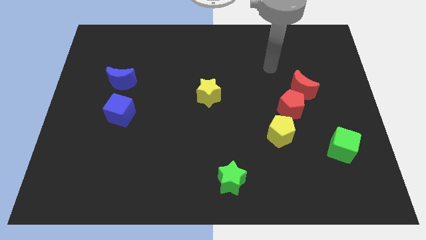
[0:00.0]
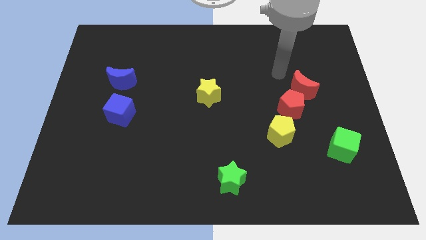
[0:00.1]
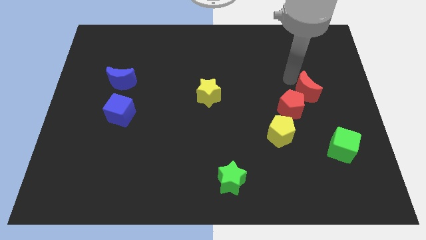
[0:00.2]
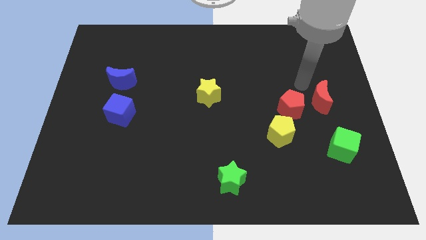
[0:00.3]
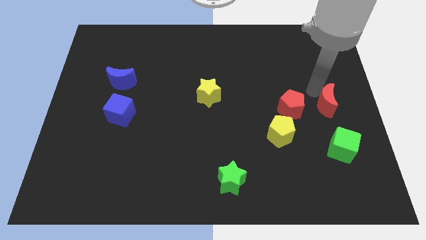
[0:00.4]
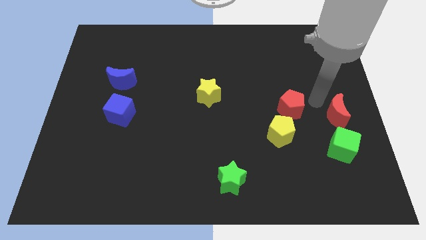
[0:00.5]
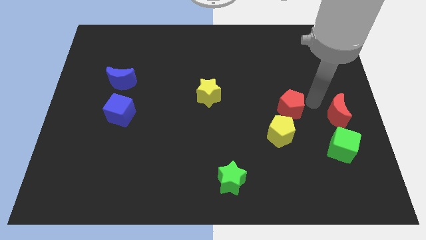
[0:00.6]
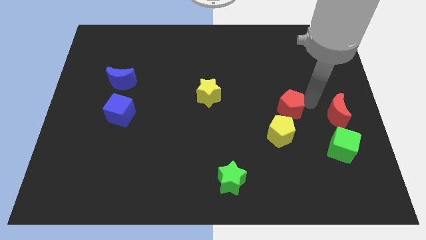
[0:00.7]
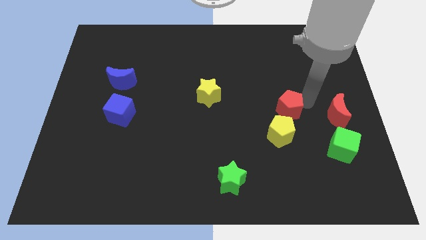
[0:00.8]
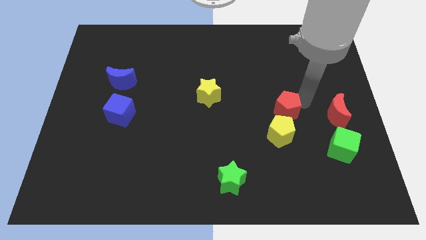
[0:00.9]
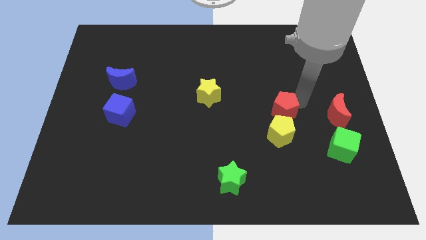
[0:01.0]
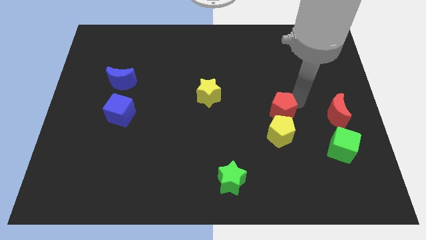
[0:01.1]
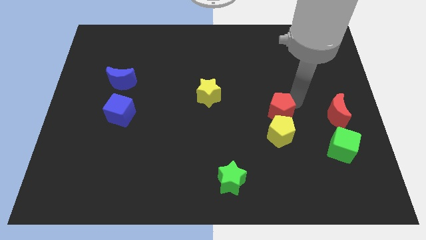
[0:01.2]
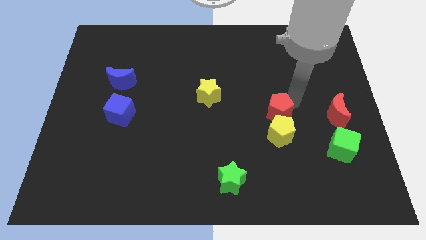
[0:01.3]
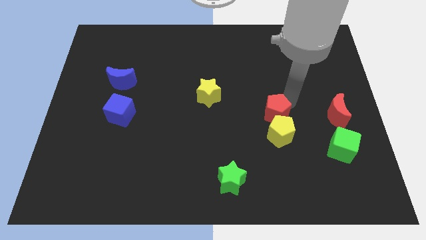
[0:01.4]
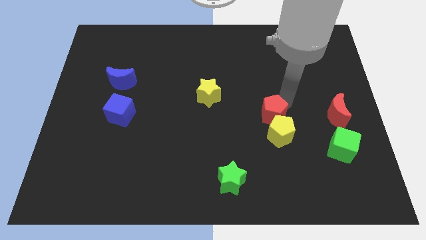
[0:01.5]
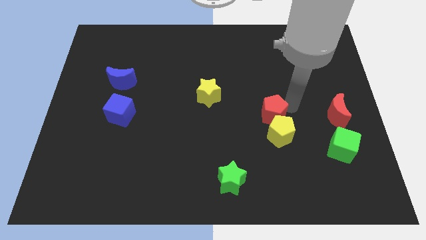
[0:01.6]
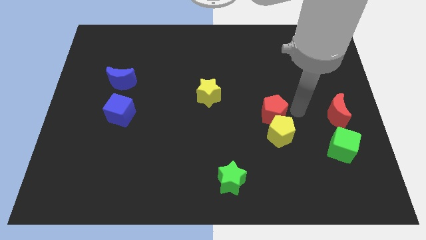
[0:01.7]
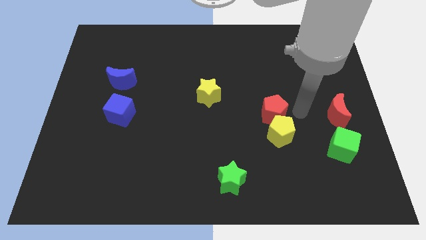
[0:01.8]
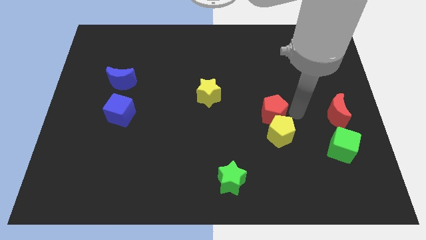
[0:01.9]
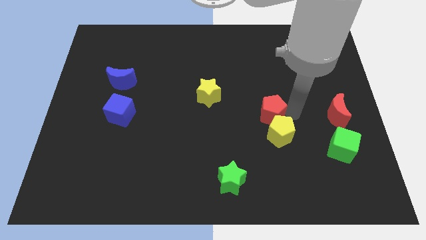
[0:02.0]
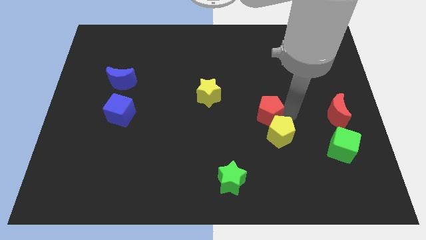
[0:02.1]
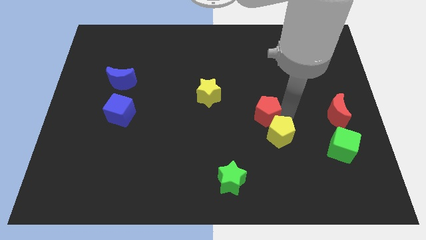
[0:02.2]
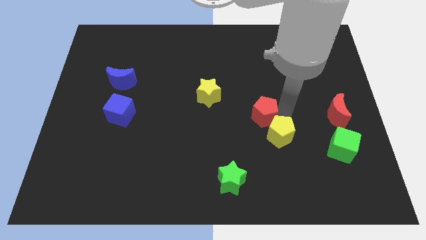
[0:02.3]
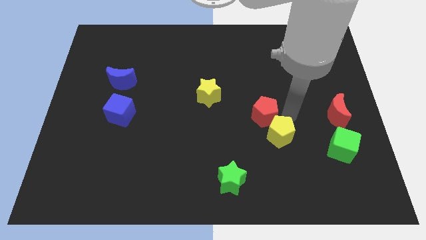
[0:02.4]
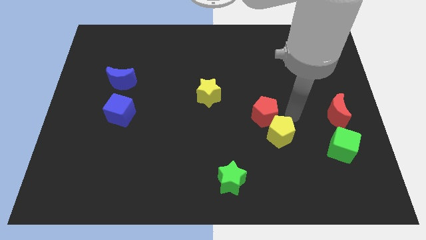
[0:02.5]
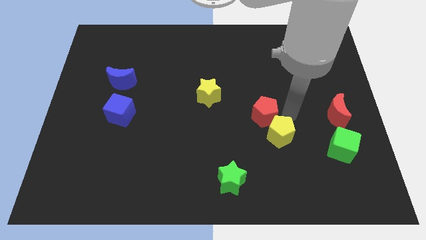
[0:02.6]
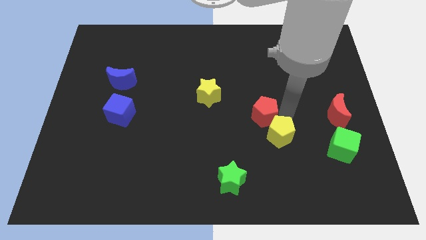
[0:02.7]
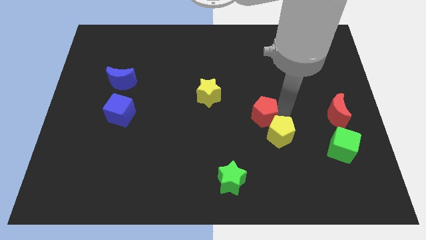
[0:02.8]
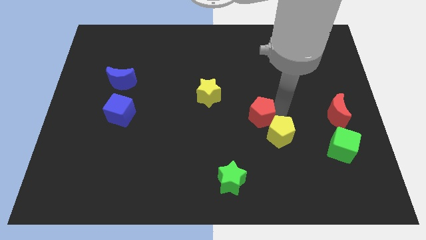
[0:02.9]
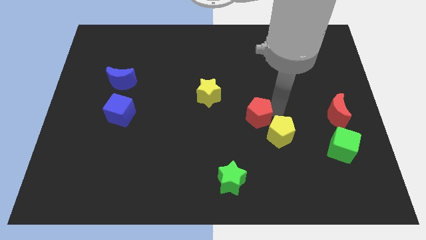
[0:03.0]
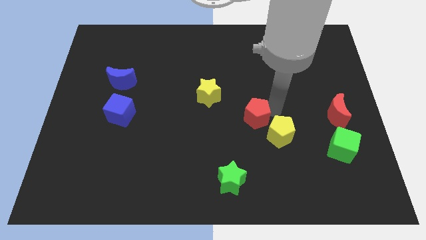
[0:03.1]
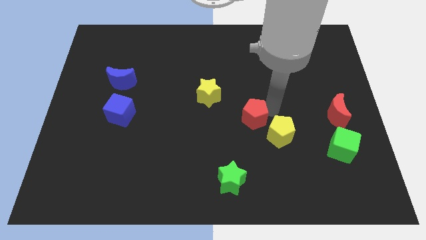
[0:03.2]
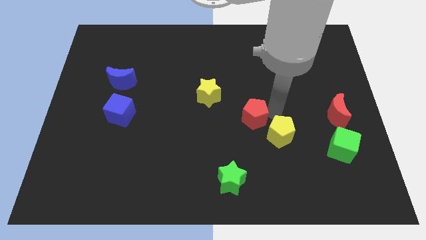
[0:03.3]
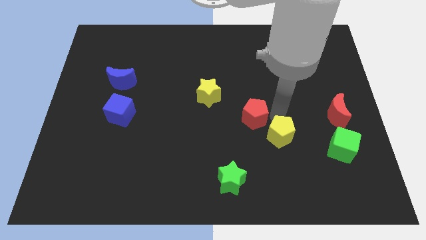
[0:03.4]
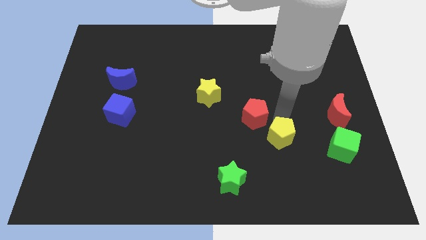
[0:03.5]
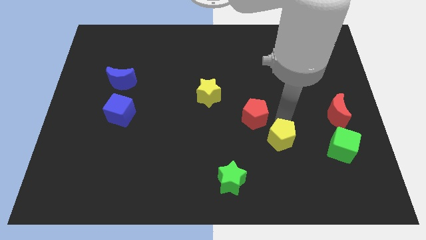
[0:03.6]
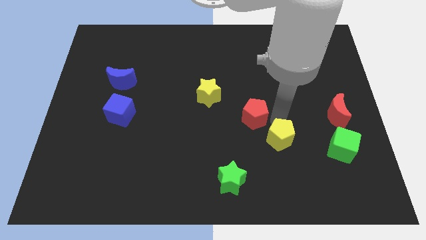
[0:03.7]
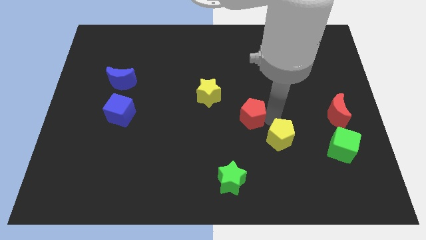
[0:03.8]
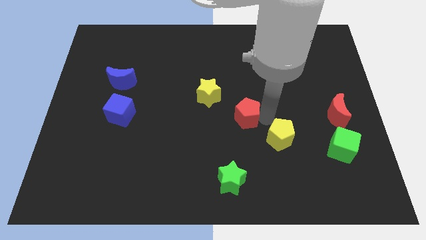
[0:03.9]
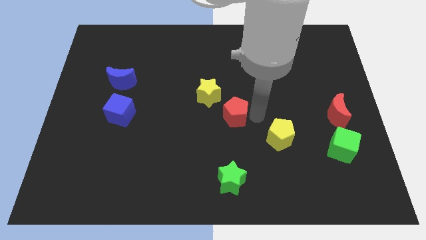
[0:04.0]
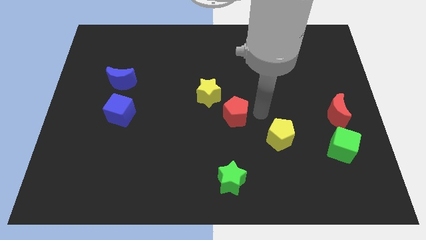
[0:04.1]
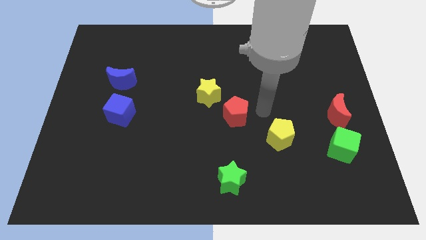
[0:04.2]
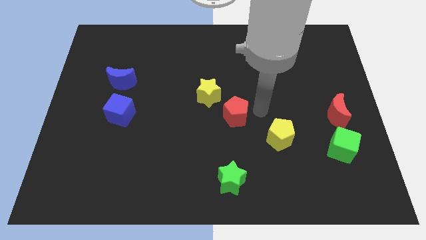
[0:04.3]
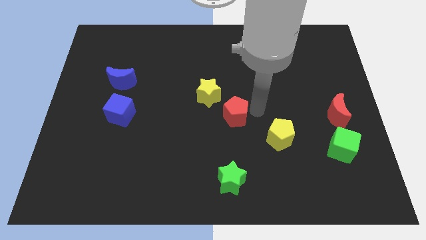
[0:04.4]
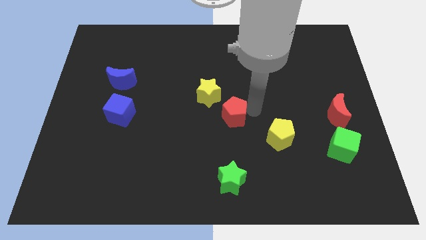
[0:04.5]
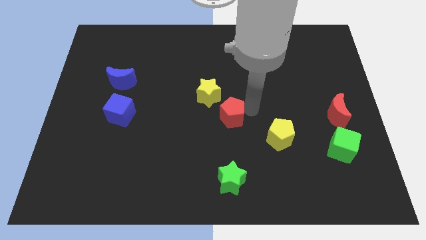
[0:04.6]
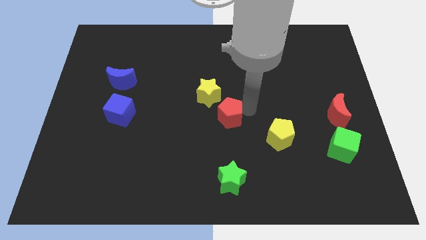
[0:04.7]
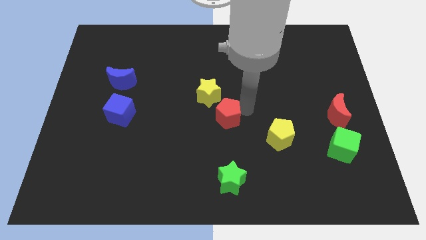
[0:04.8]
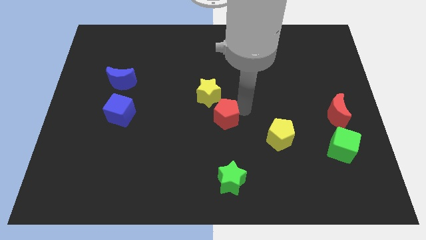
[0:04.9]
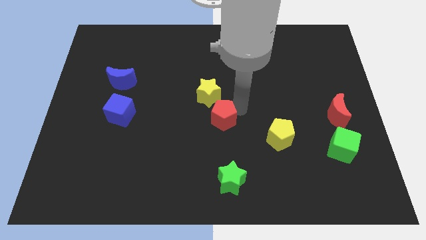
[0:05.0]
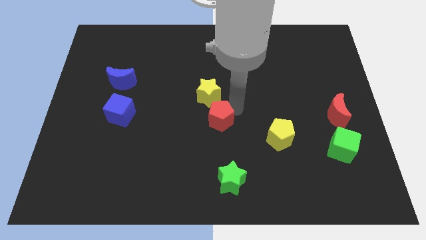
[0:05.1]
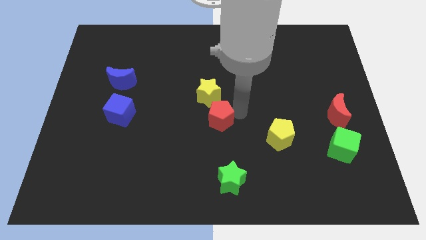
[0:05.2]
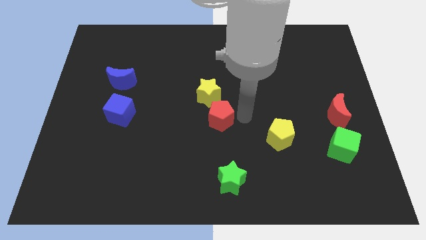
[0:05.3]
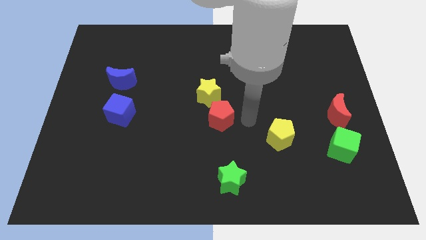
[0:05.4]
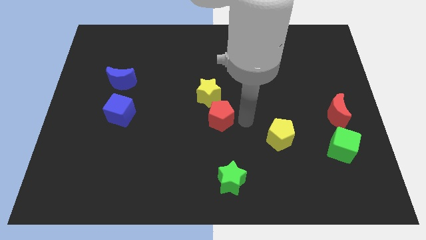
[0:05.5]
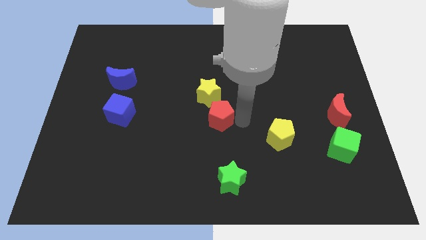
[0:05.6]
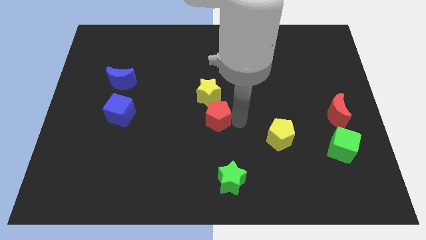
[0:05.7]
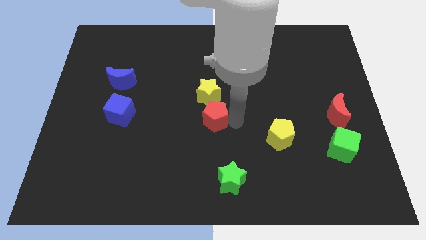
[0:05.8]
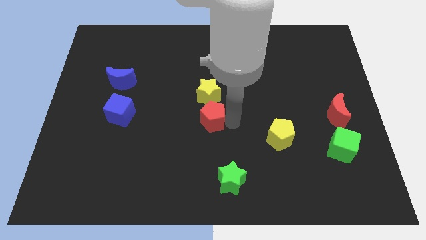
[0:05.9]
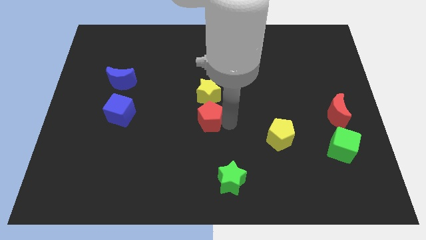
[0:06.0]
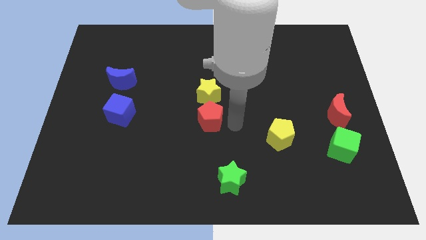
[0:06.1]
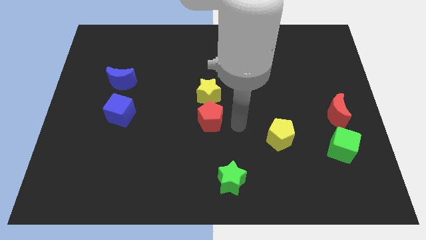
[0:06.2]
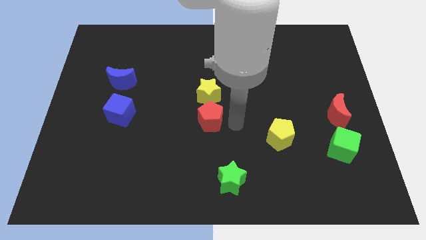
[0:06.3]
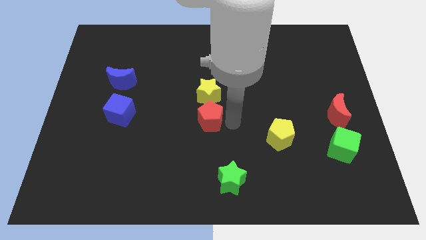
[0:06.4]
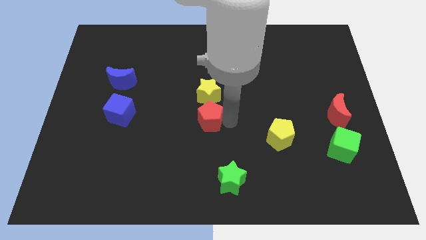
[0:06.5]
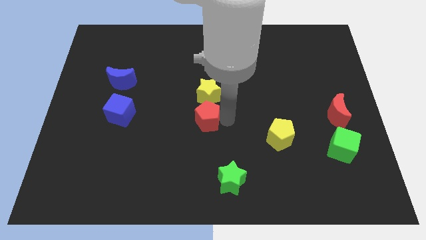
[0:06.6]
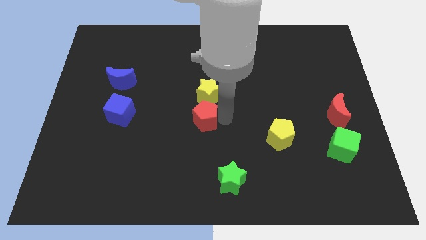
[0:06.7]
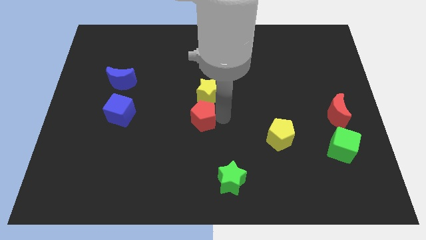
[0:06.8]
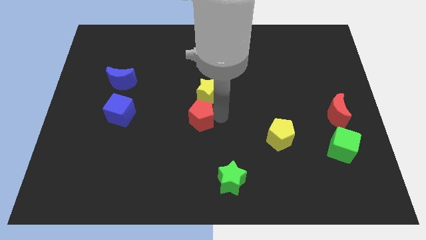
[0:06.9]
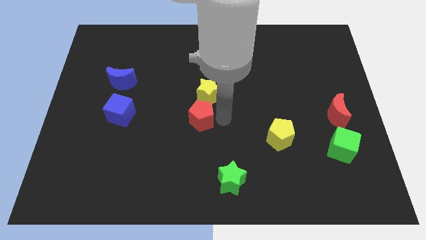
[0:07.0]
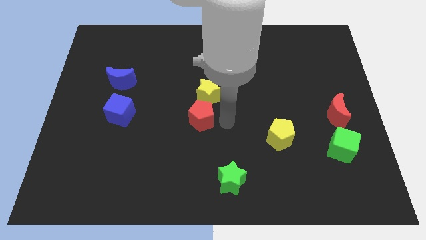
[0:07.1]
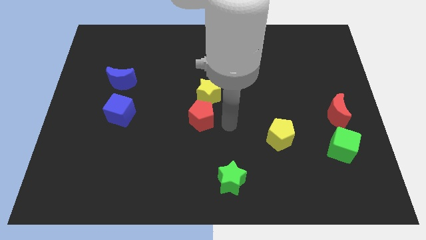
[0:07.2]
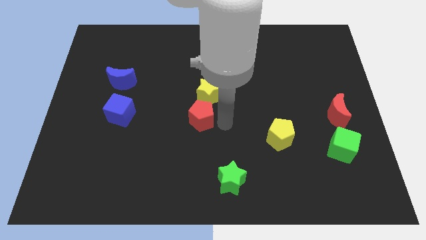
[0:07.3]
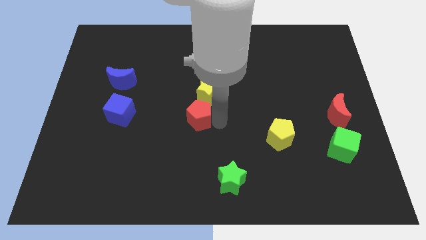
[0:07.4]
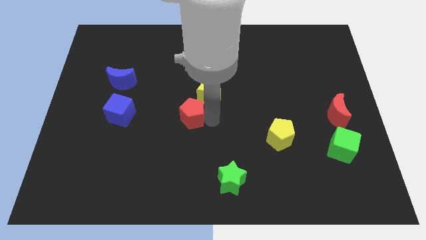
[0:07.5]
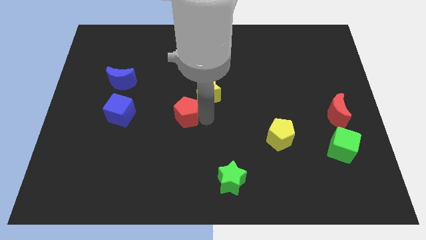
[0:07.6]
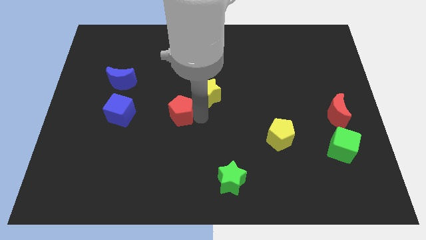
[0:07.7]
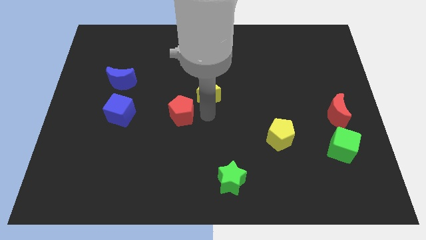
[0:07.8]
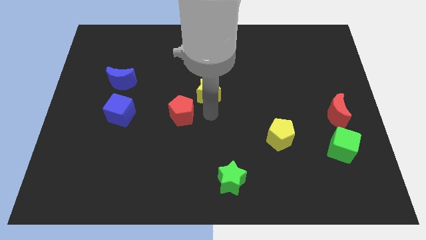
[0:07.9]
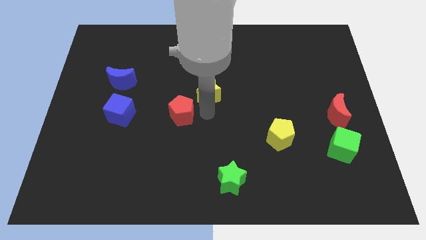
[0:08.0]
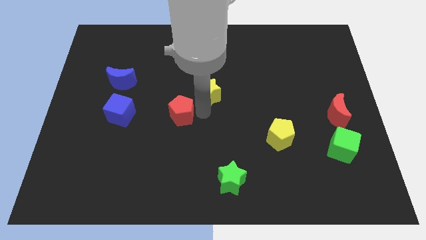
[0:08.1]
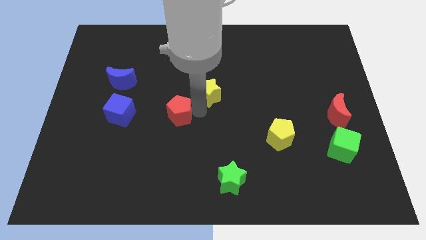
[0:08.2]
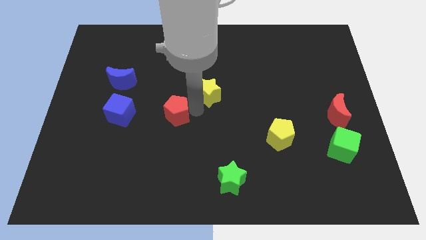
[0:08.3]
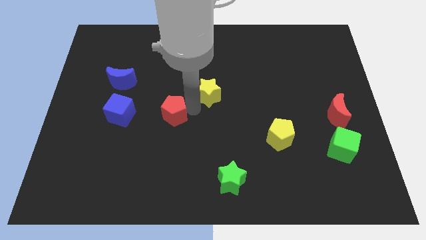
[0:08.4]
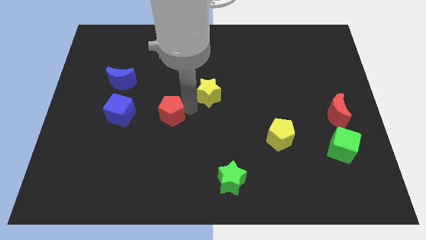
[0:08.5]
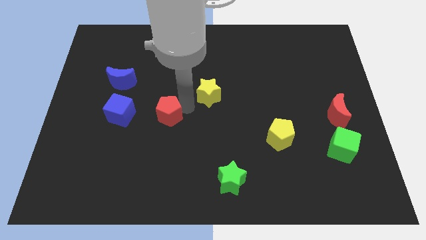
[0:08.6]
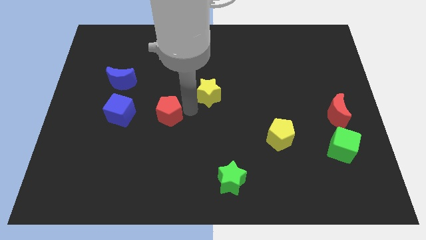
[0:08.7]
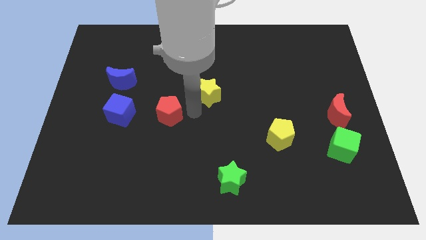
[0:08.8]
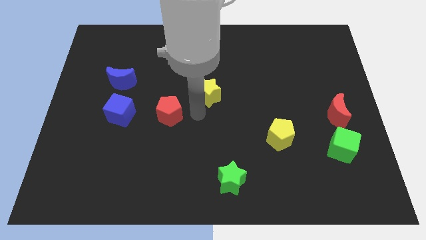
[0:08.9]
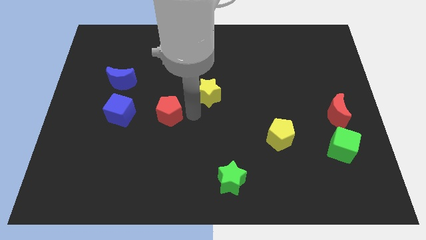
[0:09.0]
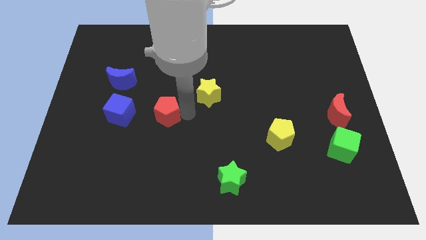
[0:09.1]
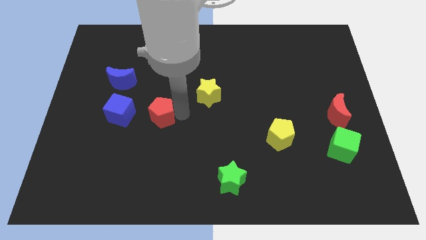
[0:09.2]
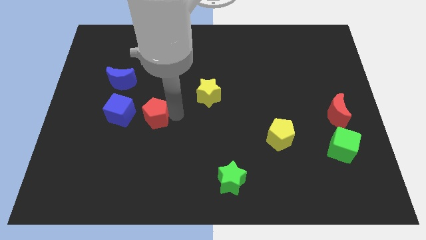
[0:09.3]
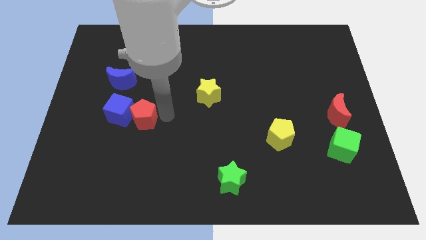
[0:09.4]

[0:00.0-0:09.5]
move the red pentagon towards the blue cube
